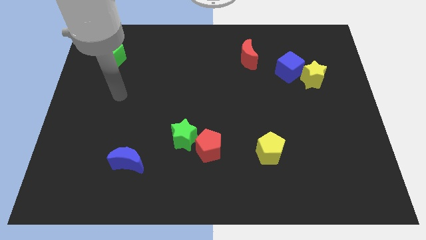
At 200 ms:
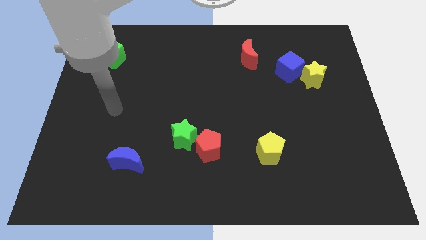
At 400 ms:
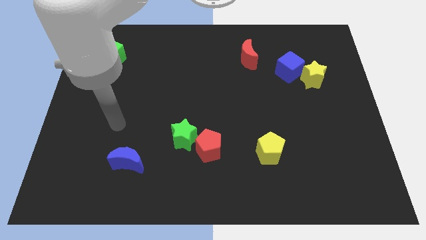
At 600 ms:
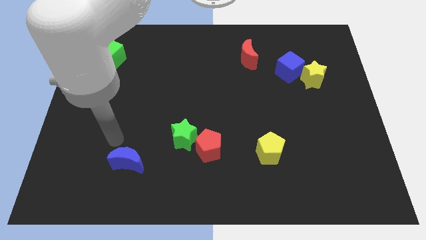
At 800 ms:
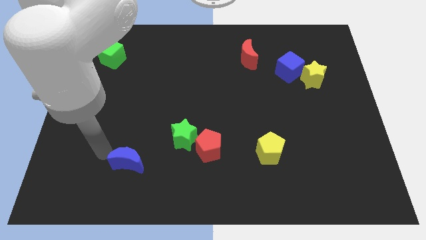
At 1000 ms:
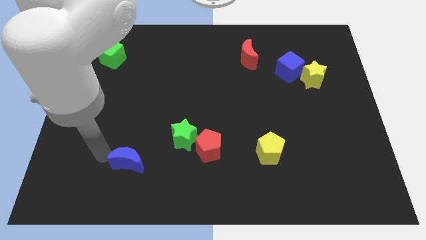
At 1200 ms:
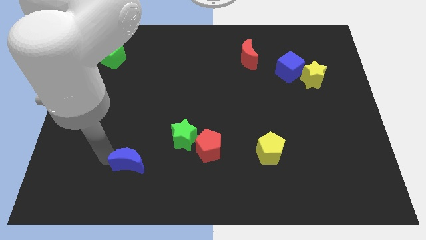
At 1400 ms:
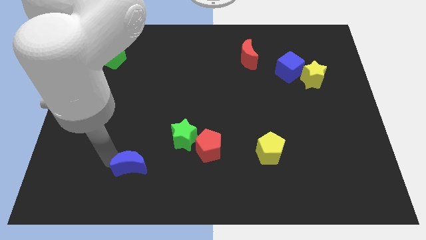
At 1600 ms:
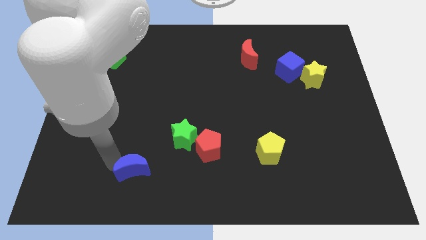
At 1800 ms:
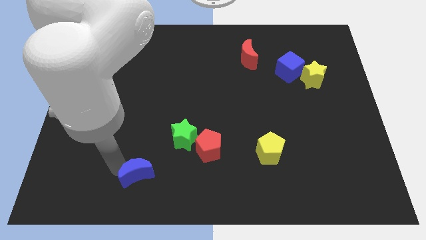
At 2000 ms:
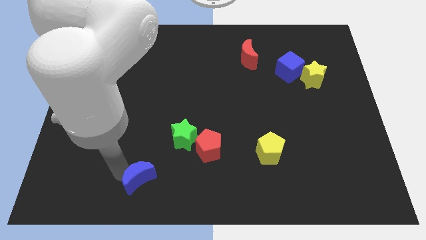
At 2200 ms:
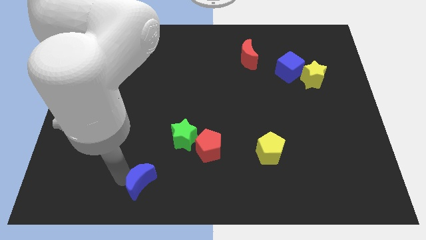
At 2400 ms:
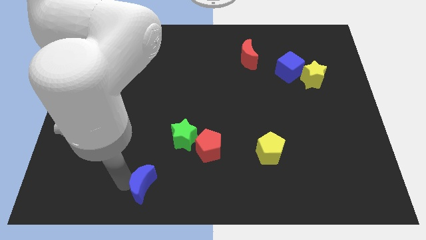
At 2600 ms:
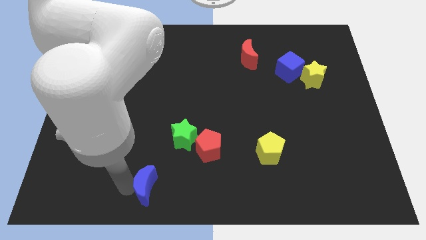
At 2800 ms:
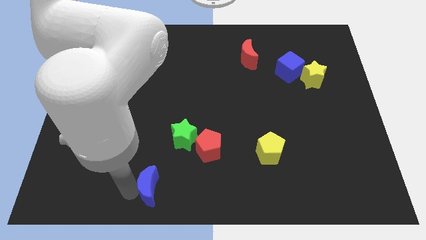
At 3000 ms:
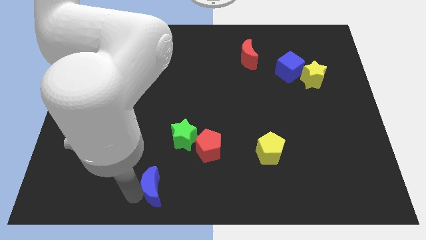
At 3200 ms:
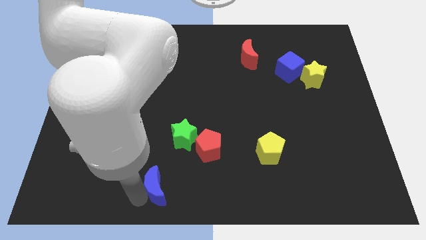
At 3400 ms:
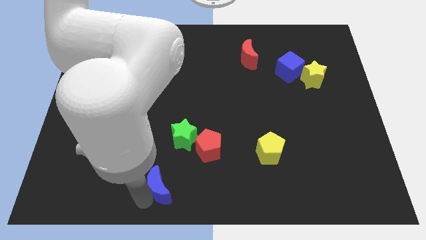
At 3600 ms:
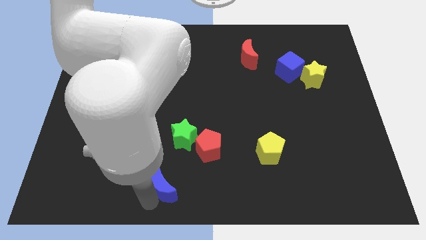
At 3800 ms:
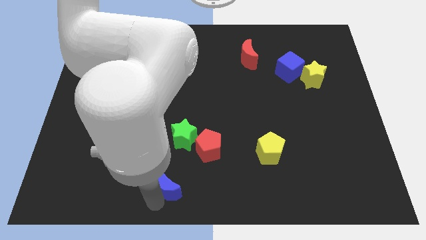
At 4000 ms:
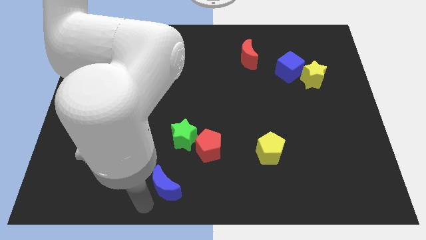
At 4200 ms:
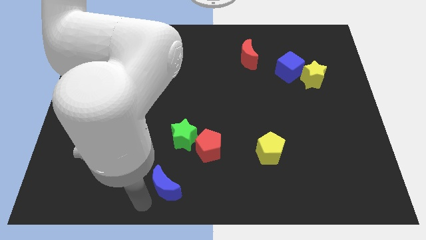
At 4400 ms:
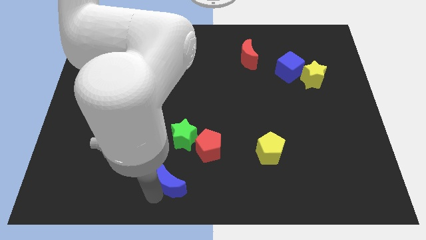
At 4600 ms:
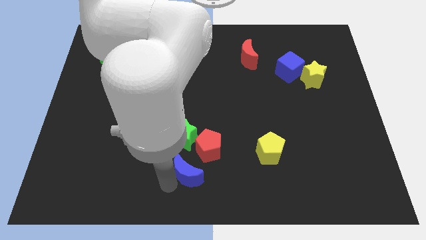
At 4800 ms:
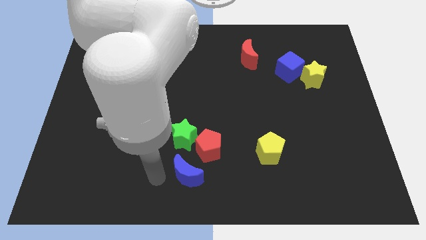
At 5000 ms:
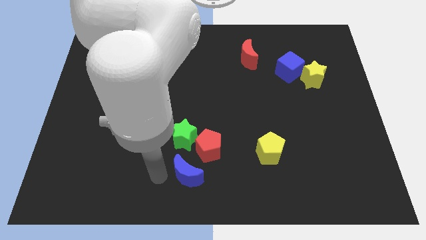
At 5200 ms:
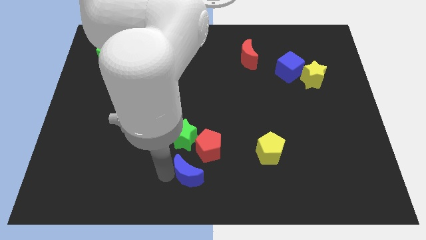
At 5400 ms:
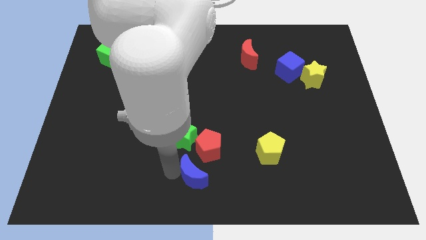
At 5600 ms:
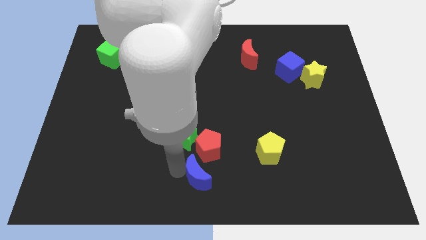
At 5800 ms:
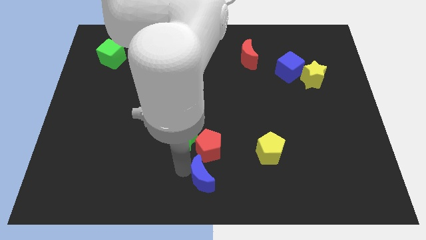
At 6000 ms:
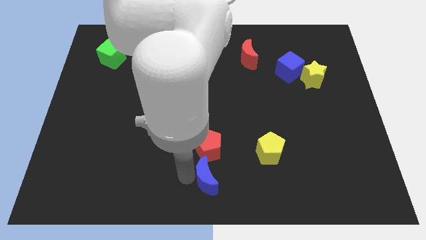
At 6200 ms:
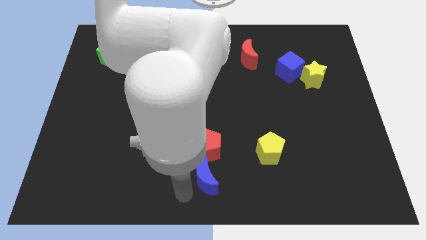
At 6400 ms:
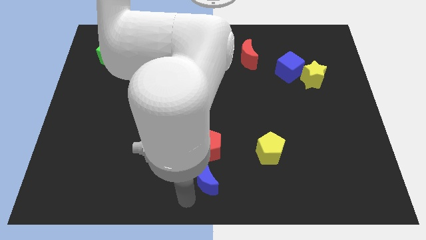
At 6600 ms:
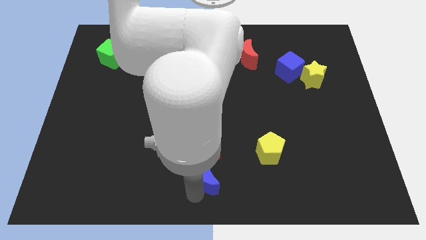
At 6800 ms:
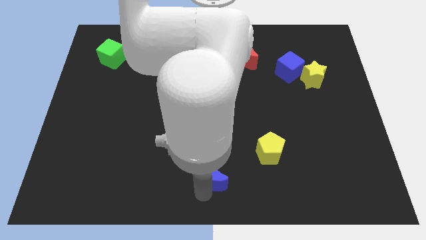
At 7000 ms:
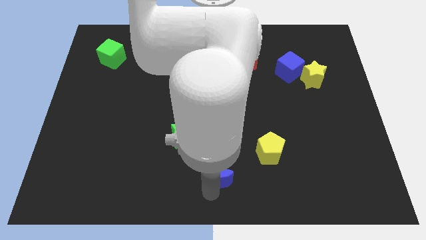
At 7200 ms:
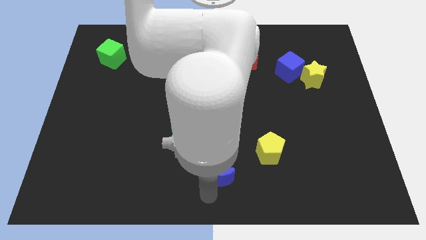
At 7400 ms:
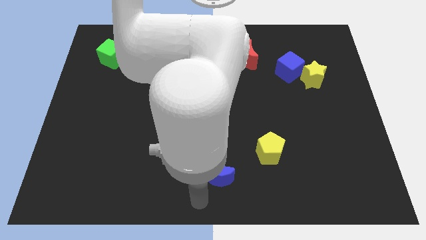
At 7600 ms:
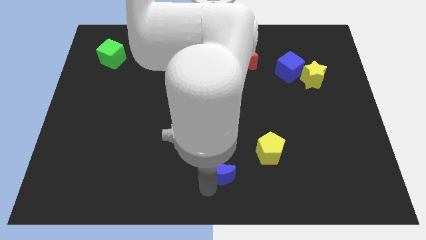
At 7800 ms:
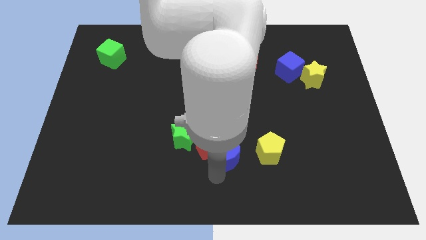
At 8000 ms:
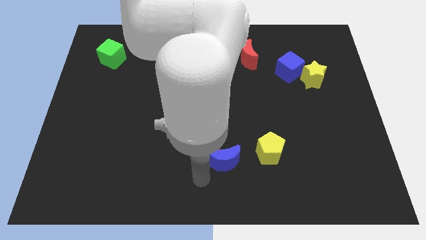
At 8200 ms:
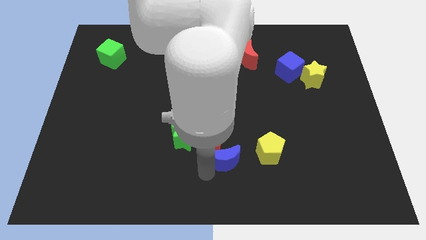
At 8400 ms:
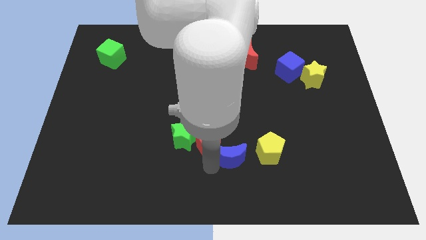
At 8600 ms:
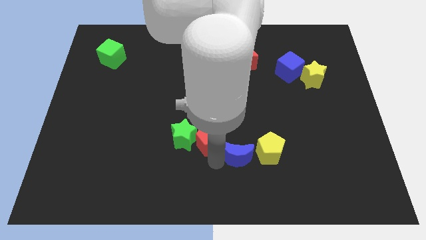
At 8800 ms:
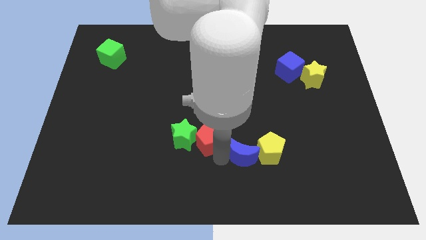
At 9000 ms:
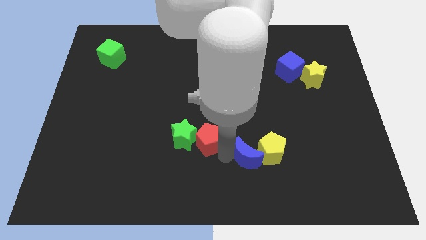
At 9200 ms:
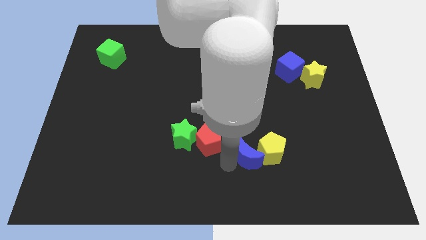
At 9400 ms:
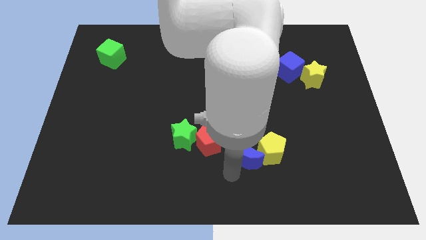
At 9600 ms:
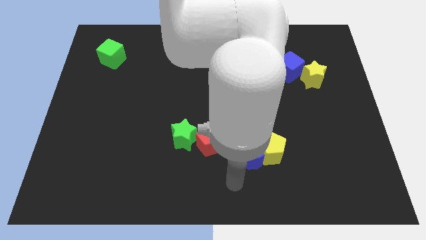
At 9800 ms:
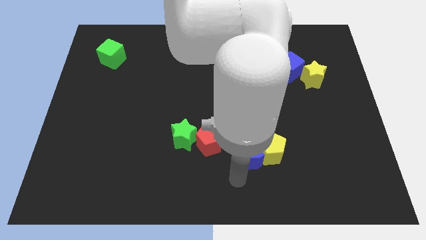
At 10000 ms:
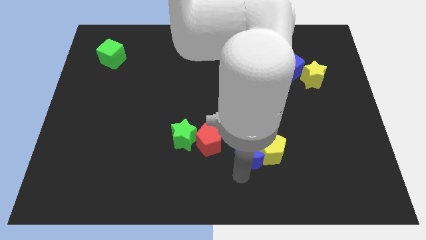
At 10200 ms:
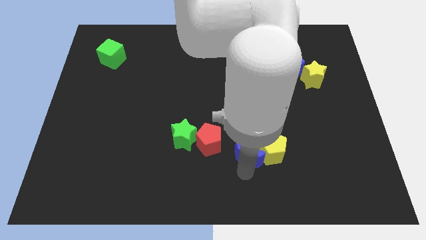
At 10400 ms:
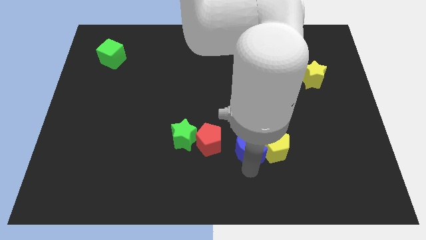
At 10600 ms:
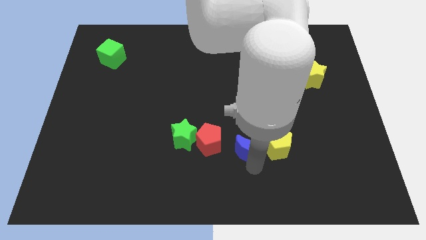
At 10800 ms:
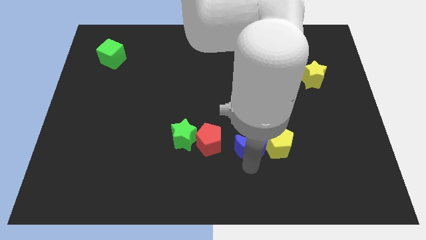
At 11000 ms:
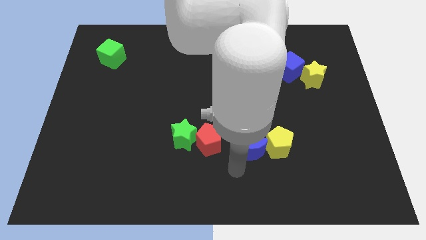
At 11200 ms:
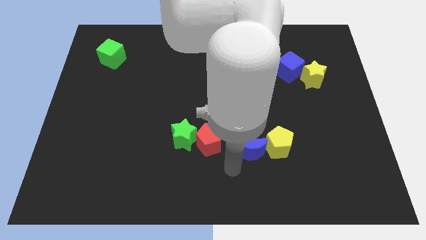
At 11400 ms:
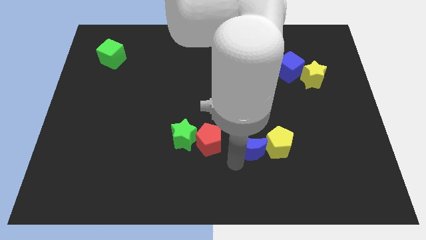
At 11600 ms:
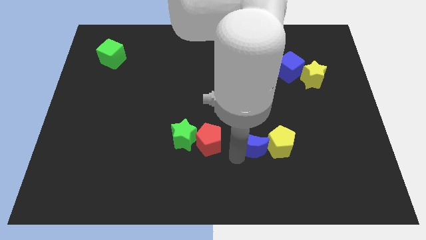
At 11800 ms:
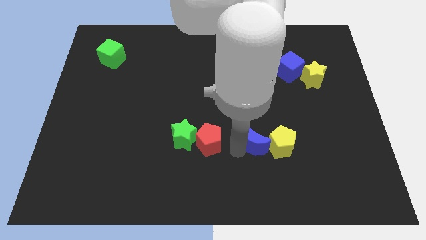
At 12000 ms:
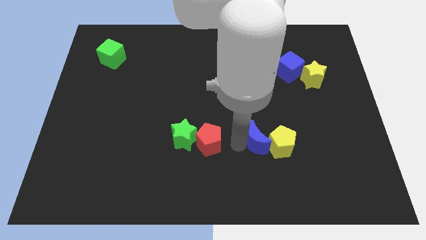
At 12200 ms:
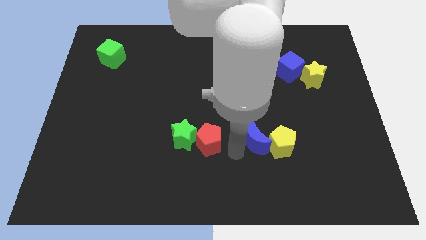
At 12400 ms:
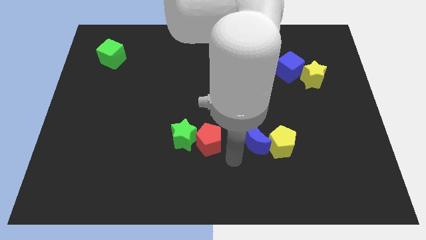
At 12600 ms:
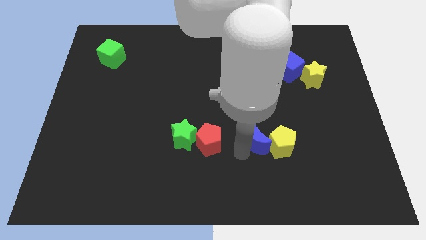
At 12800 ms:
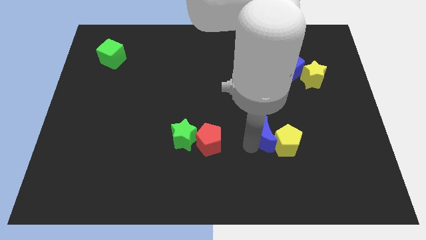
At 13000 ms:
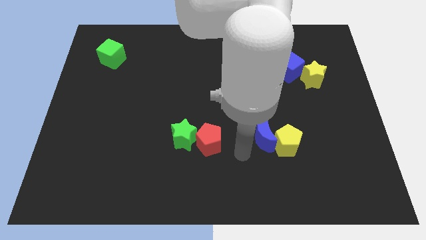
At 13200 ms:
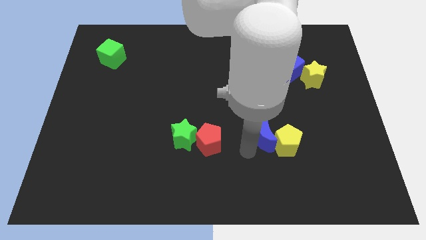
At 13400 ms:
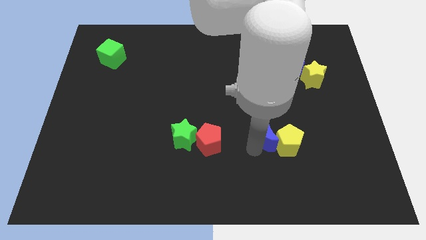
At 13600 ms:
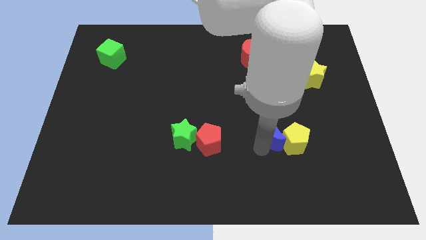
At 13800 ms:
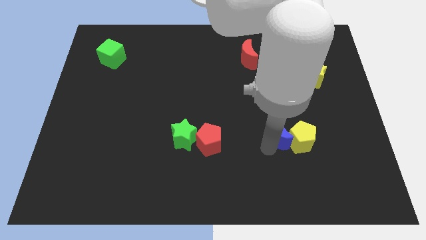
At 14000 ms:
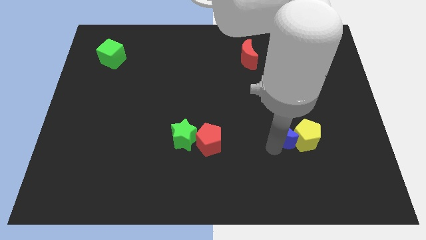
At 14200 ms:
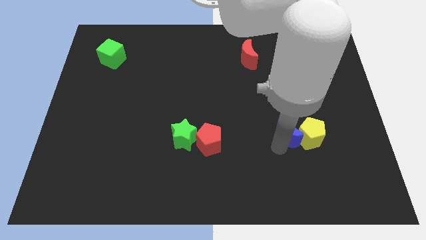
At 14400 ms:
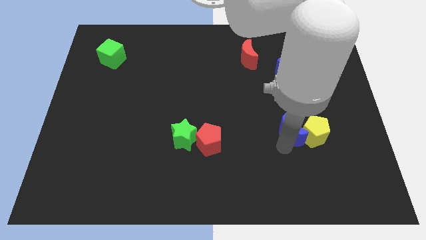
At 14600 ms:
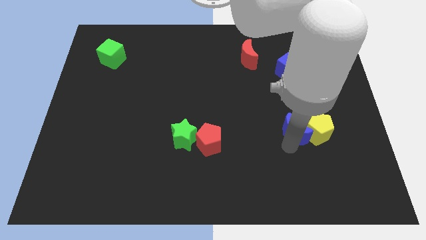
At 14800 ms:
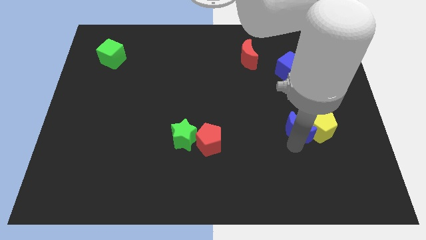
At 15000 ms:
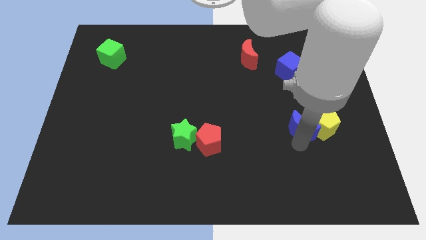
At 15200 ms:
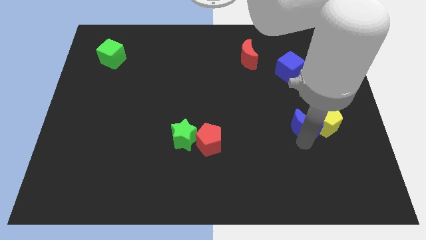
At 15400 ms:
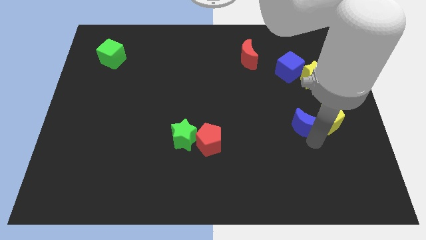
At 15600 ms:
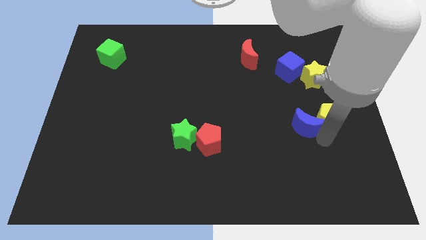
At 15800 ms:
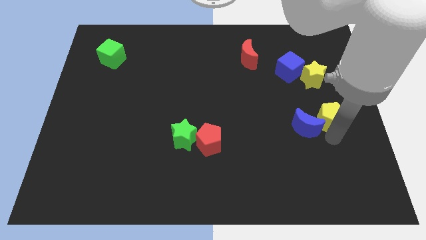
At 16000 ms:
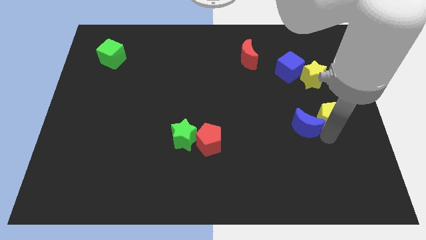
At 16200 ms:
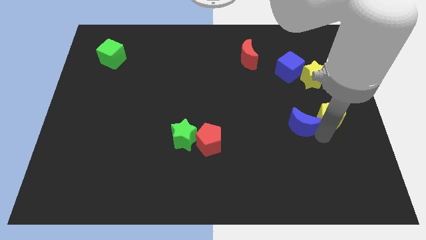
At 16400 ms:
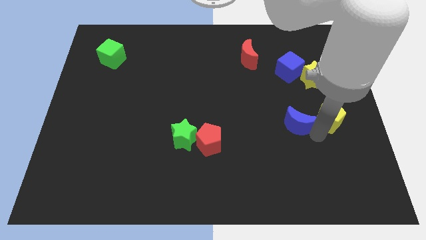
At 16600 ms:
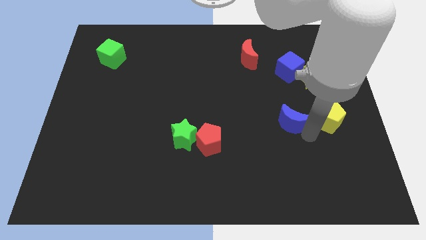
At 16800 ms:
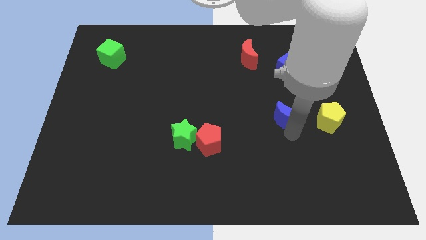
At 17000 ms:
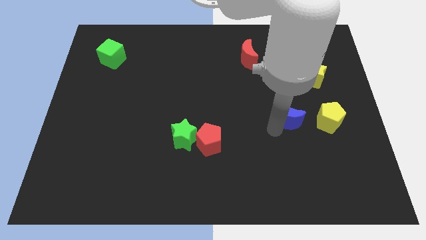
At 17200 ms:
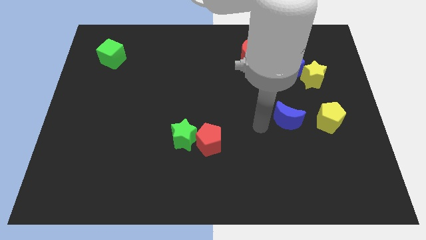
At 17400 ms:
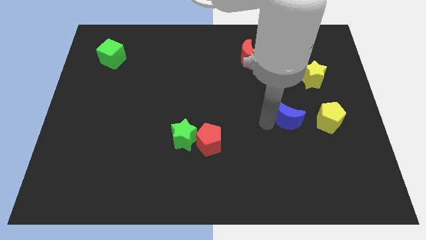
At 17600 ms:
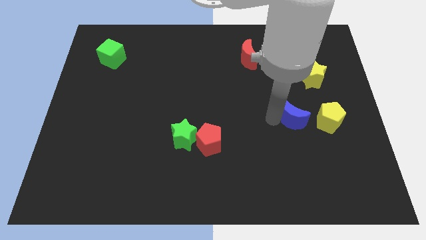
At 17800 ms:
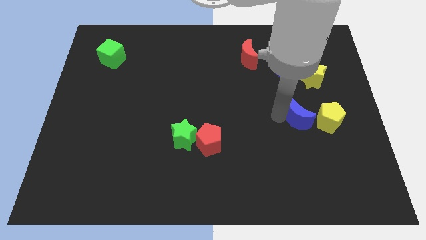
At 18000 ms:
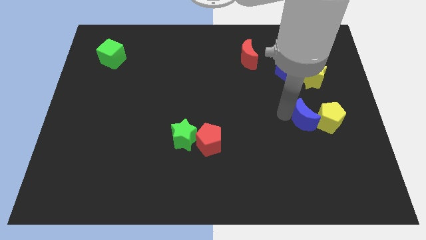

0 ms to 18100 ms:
push the blue moon to the bottom of the yellow star
